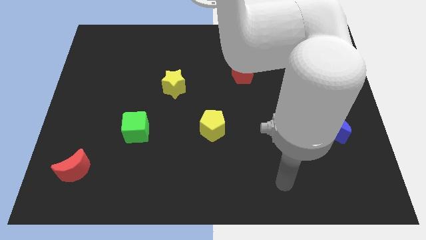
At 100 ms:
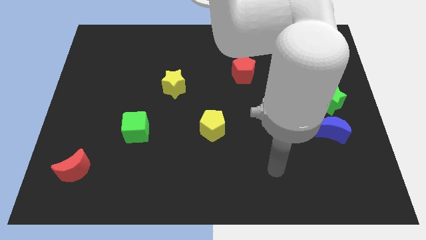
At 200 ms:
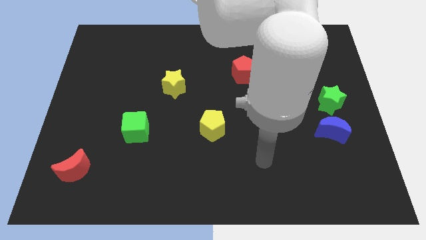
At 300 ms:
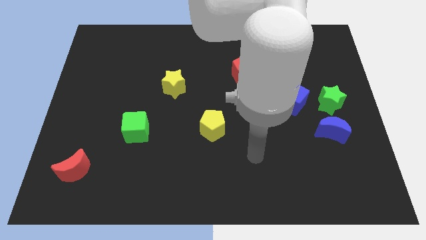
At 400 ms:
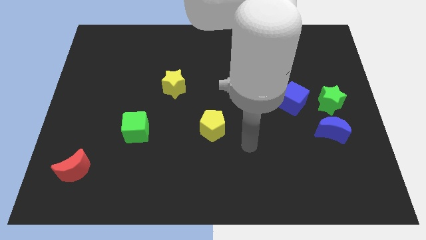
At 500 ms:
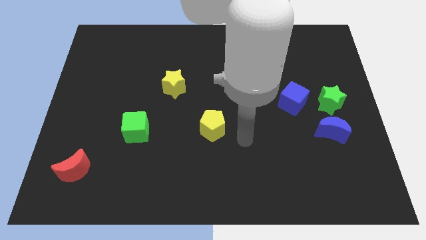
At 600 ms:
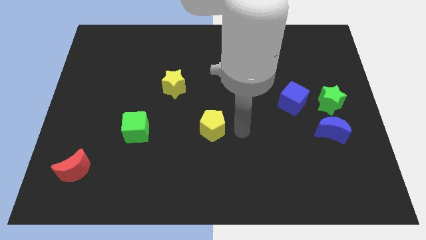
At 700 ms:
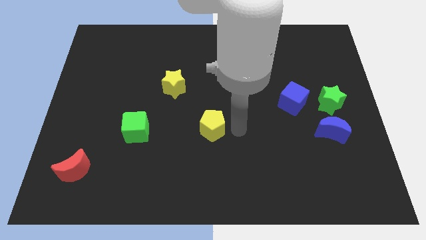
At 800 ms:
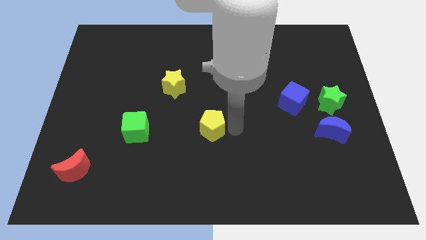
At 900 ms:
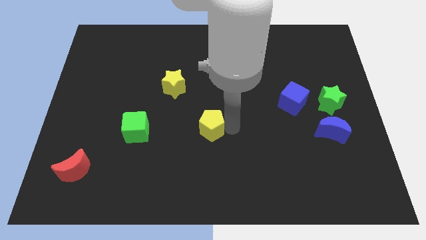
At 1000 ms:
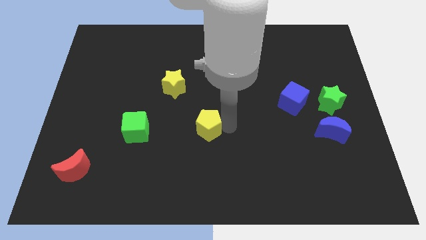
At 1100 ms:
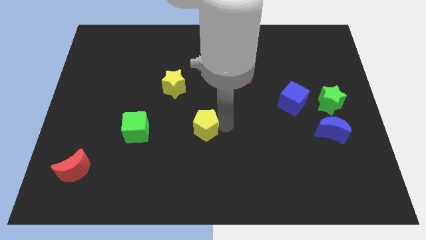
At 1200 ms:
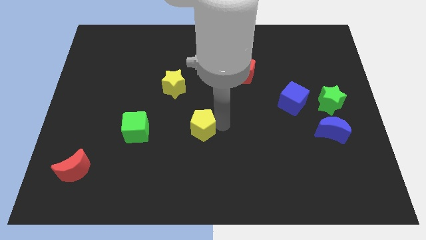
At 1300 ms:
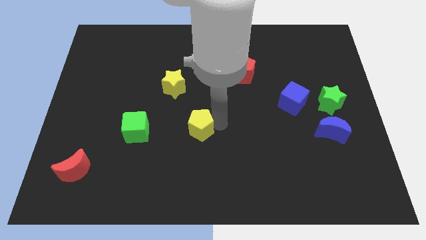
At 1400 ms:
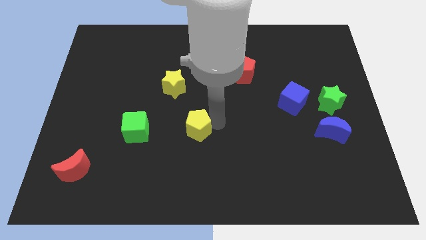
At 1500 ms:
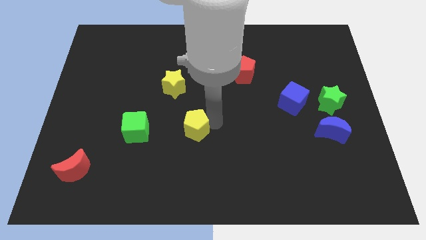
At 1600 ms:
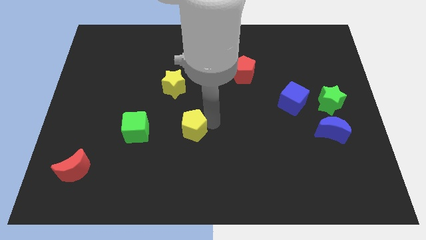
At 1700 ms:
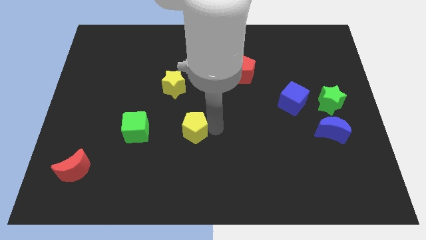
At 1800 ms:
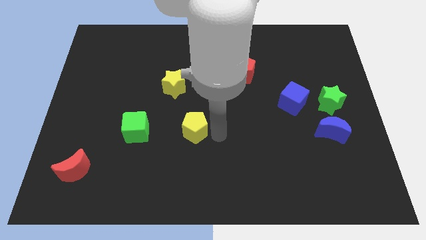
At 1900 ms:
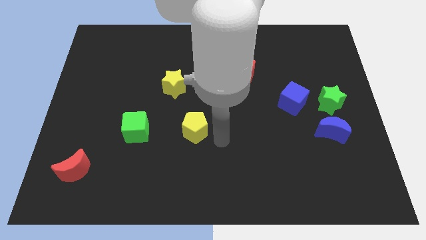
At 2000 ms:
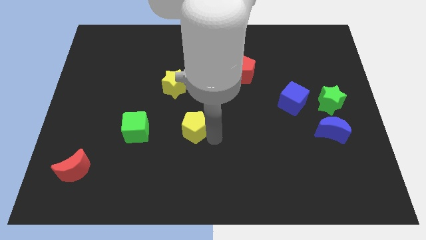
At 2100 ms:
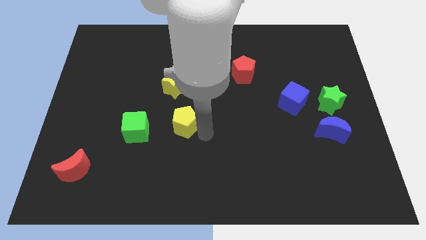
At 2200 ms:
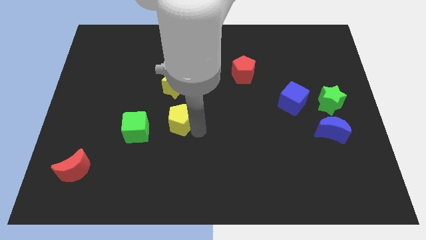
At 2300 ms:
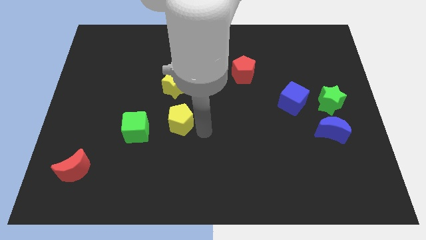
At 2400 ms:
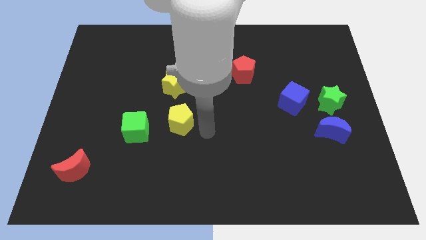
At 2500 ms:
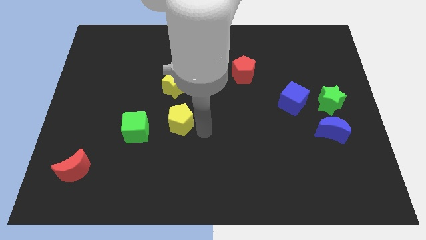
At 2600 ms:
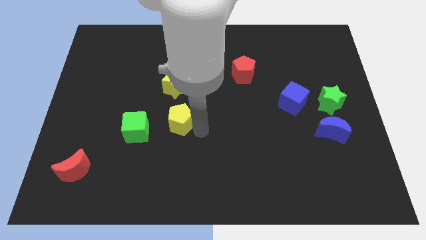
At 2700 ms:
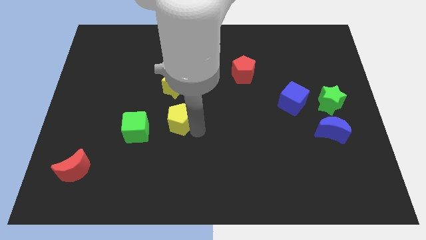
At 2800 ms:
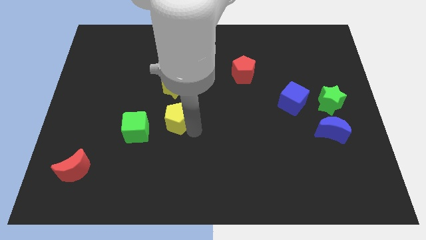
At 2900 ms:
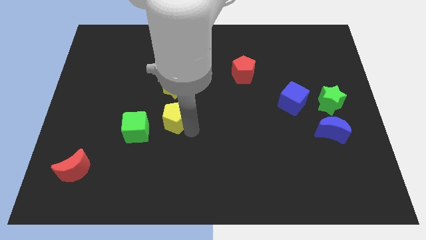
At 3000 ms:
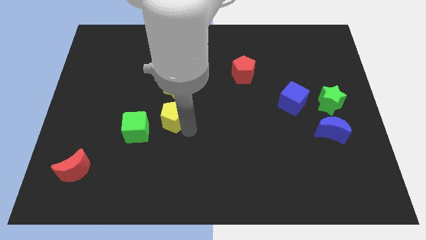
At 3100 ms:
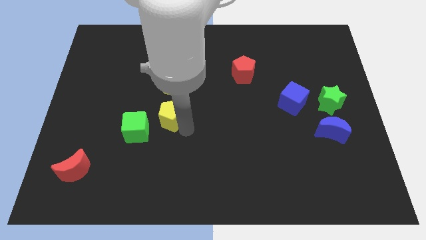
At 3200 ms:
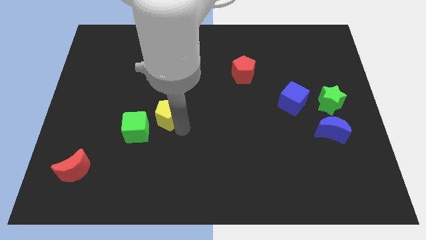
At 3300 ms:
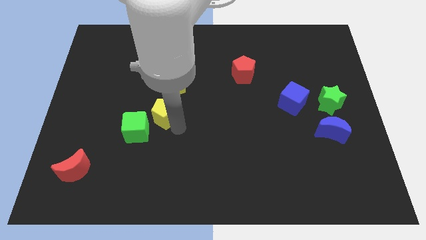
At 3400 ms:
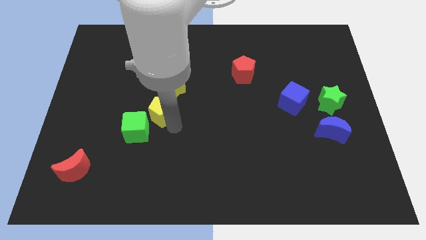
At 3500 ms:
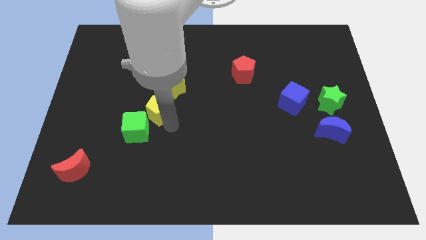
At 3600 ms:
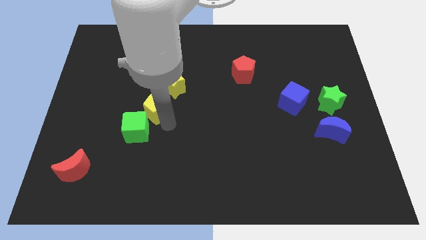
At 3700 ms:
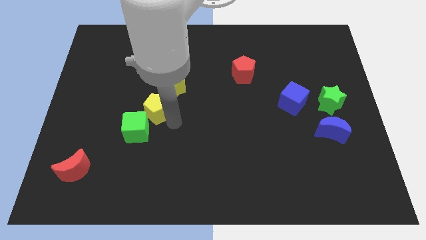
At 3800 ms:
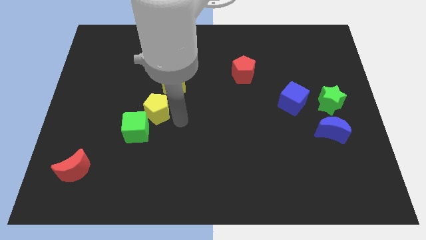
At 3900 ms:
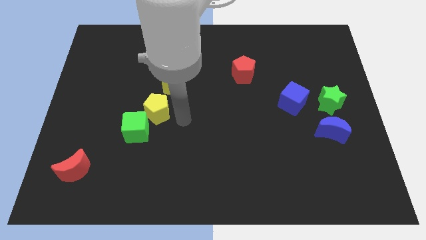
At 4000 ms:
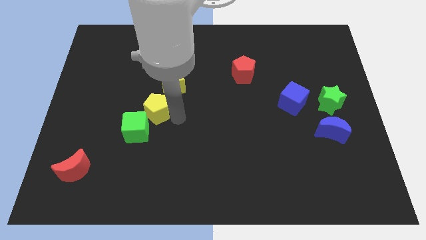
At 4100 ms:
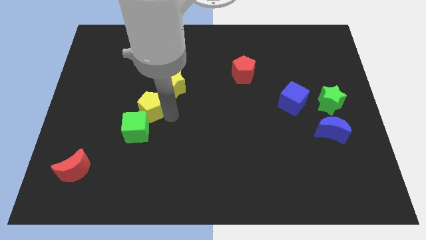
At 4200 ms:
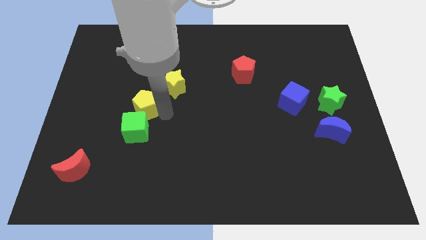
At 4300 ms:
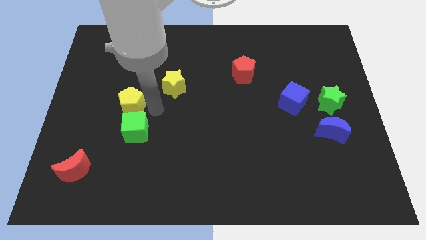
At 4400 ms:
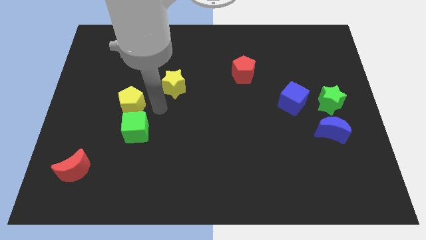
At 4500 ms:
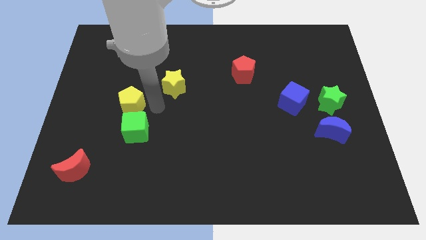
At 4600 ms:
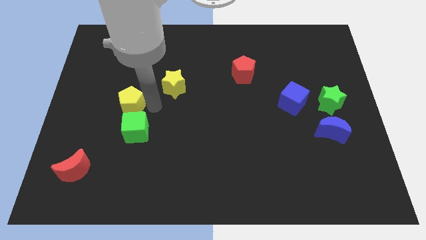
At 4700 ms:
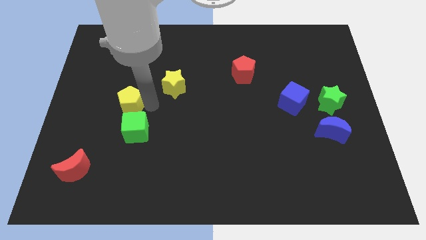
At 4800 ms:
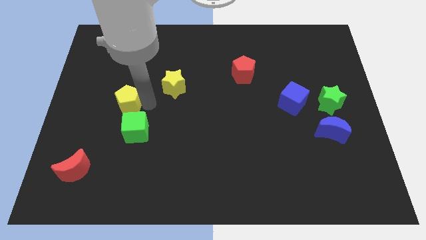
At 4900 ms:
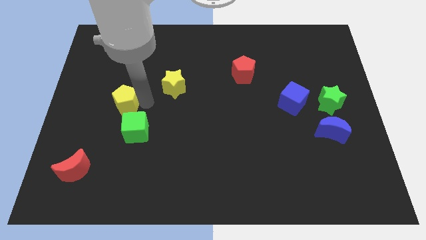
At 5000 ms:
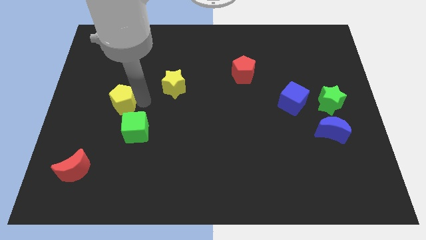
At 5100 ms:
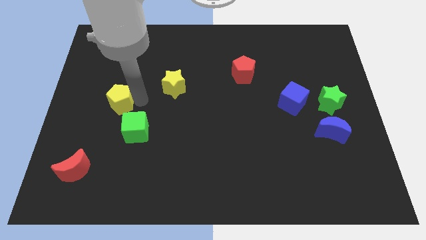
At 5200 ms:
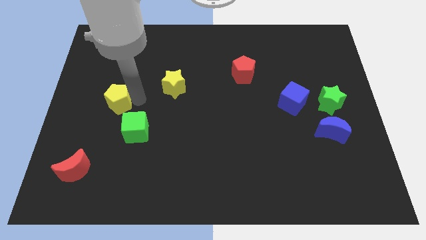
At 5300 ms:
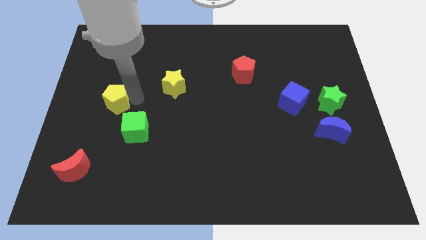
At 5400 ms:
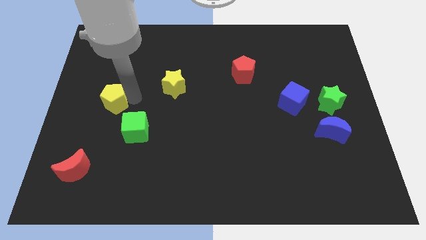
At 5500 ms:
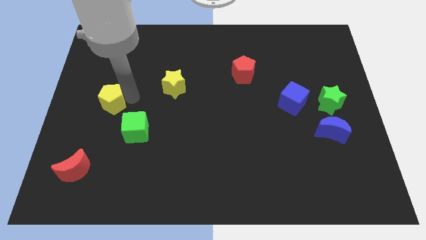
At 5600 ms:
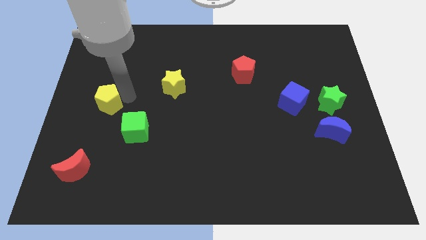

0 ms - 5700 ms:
push the yellow pentagon to the left side
